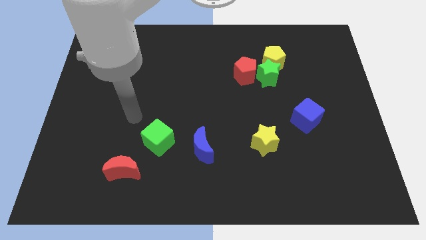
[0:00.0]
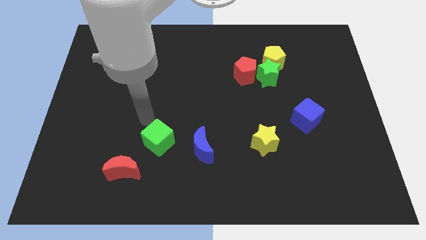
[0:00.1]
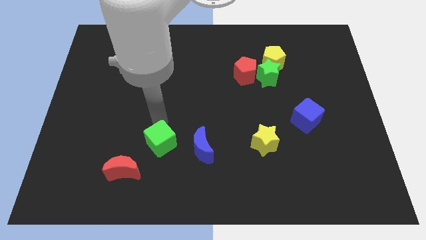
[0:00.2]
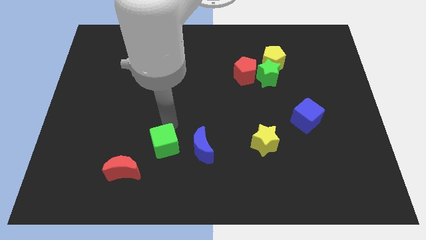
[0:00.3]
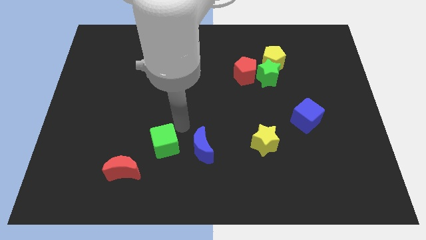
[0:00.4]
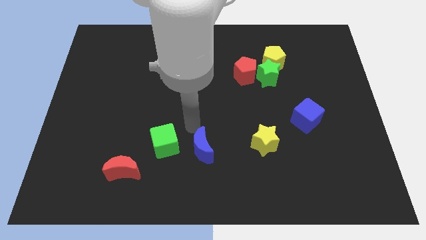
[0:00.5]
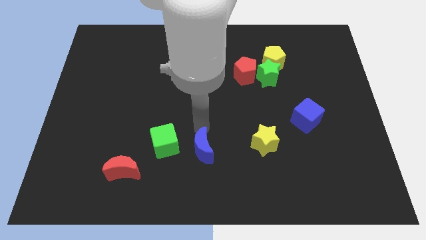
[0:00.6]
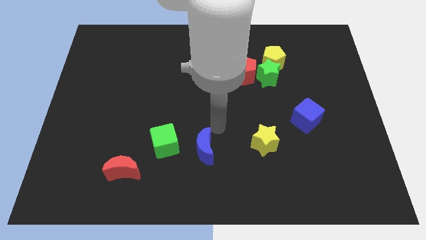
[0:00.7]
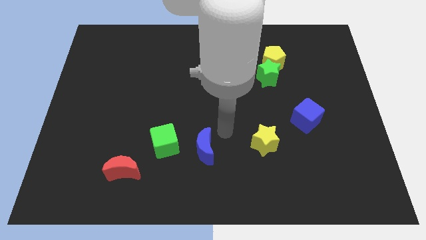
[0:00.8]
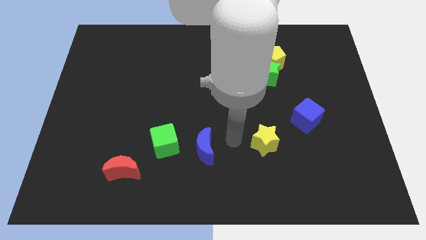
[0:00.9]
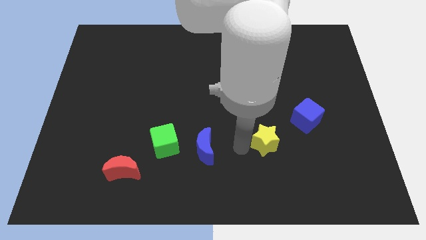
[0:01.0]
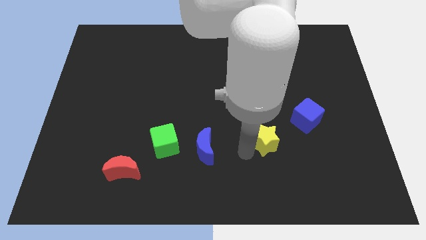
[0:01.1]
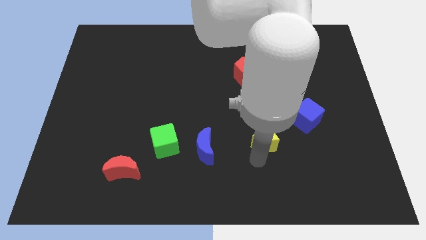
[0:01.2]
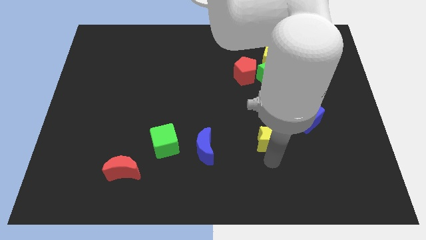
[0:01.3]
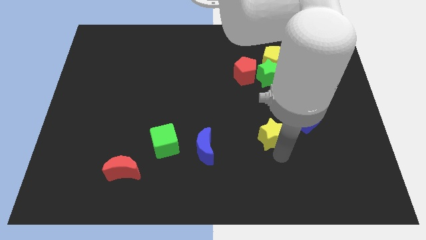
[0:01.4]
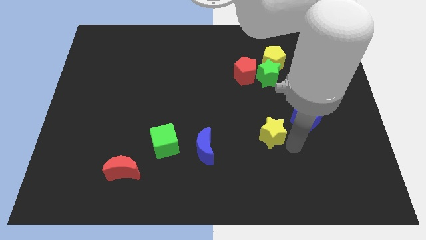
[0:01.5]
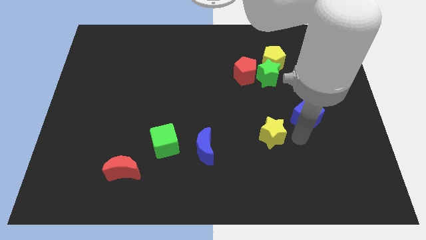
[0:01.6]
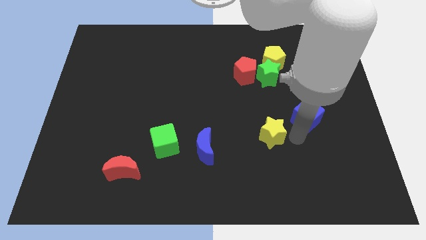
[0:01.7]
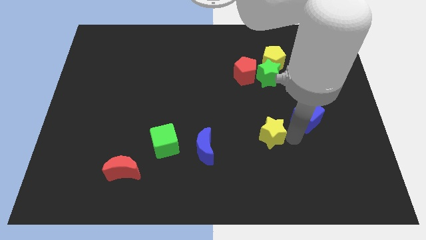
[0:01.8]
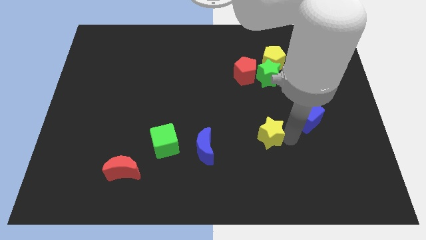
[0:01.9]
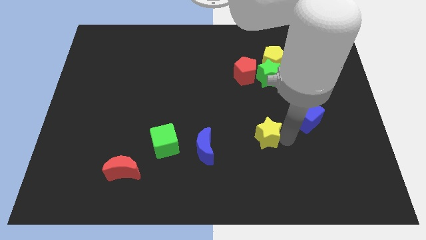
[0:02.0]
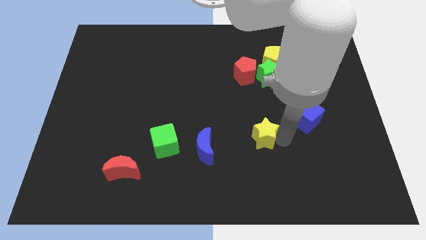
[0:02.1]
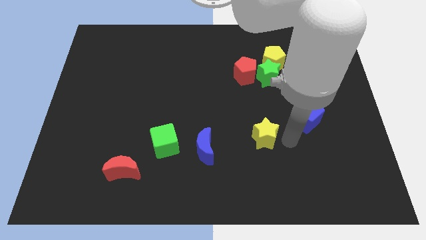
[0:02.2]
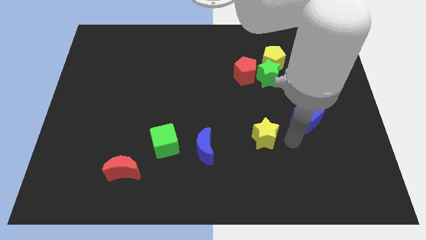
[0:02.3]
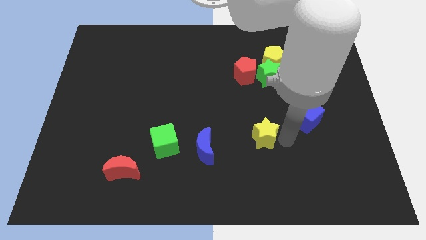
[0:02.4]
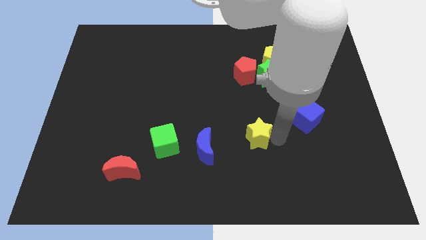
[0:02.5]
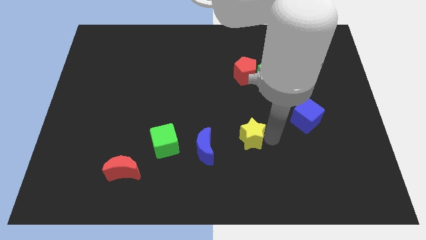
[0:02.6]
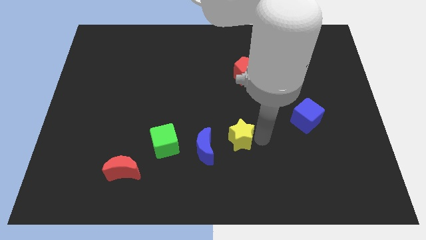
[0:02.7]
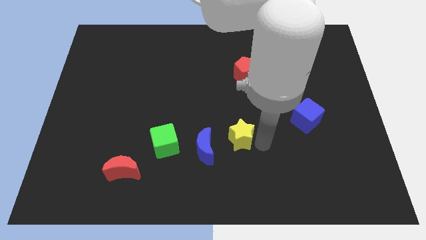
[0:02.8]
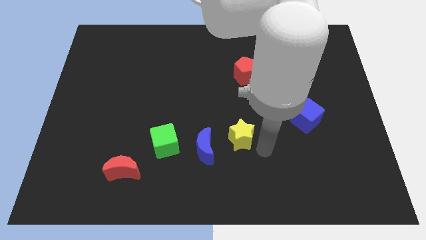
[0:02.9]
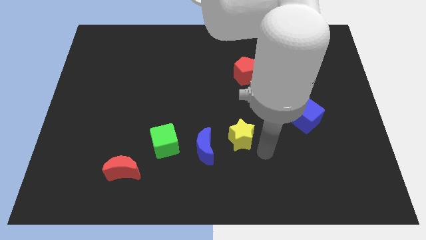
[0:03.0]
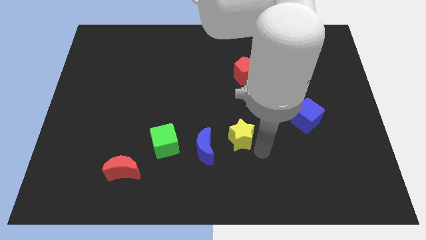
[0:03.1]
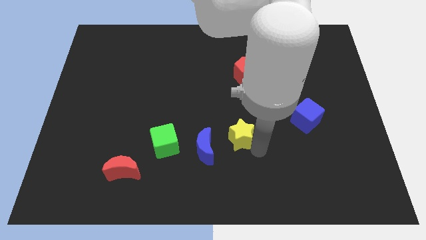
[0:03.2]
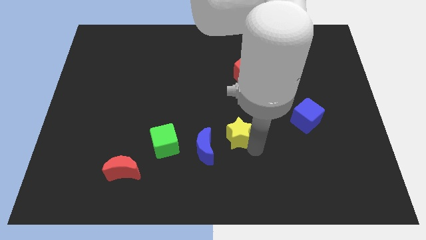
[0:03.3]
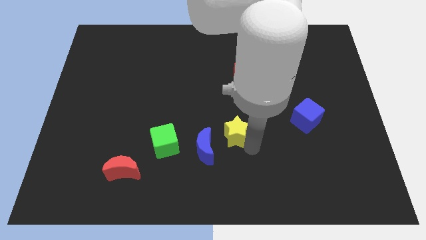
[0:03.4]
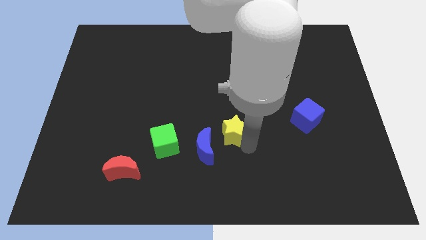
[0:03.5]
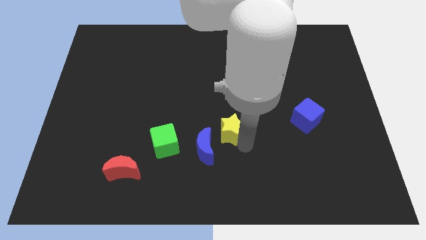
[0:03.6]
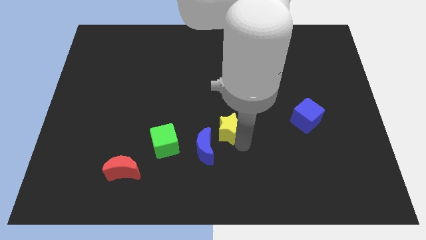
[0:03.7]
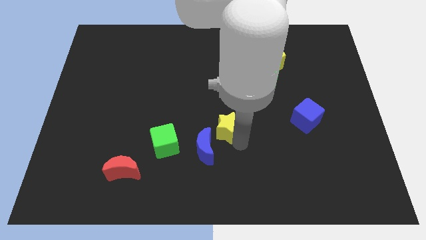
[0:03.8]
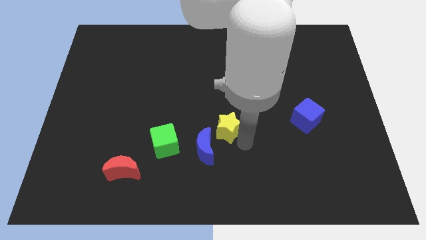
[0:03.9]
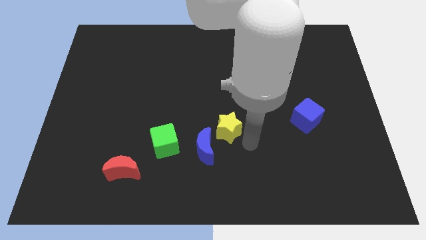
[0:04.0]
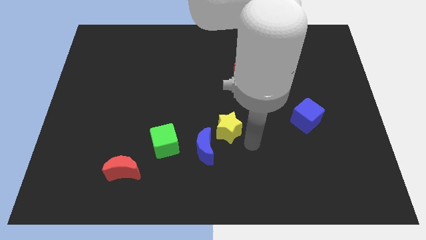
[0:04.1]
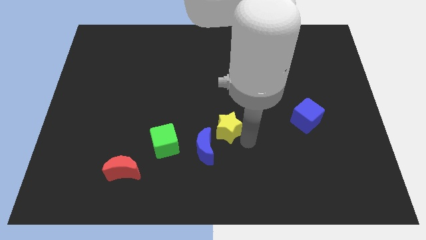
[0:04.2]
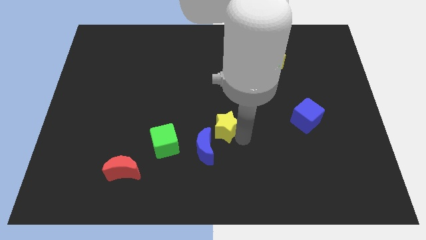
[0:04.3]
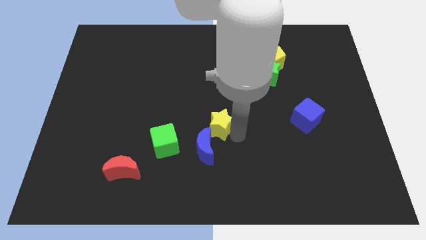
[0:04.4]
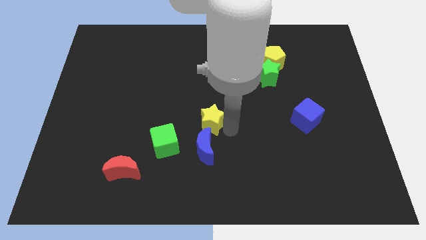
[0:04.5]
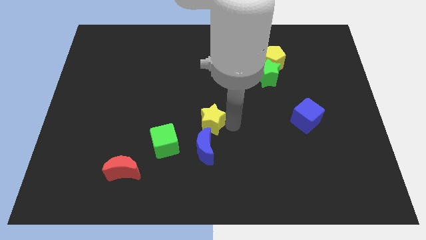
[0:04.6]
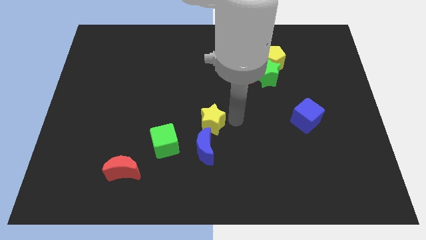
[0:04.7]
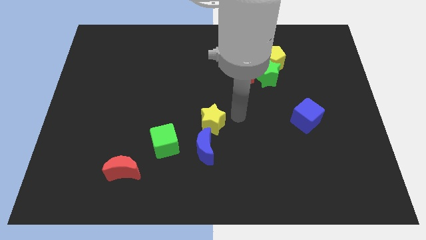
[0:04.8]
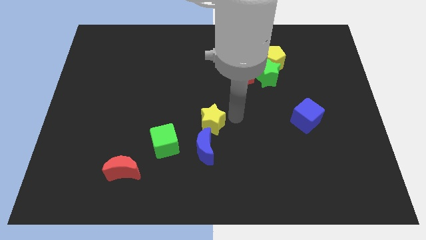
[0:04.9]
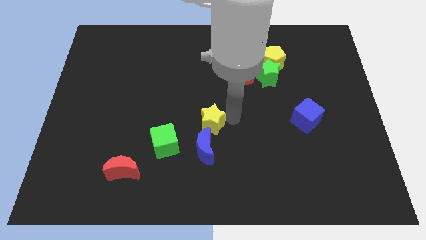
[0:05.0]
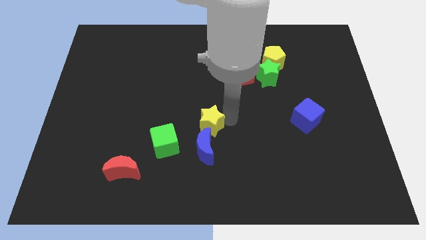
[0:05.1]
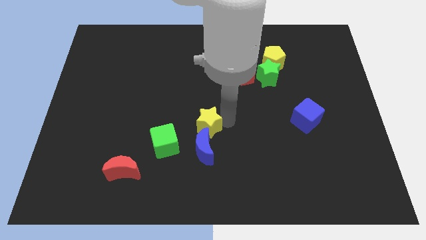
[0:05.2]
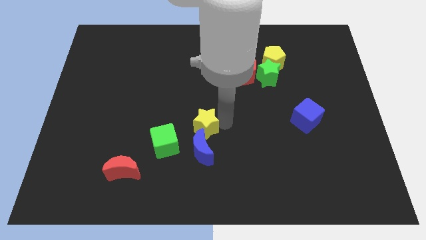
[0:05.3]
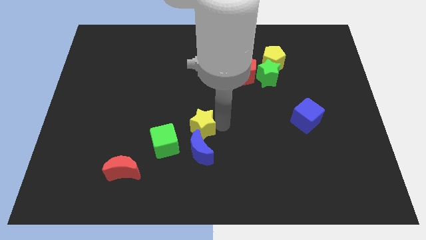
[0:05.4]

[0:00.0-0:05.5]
push the yellow star diagonally up and to the left of the blue moon
